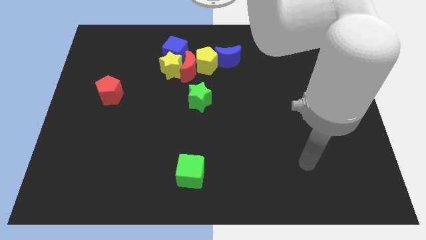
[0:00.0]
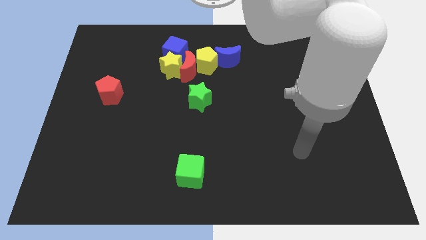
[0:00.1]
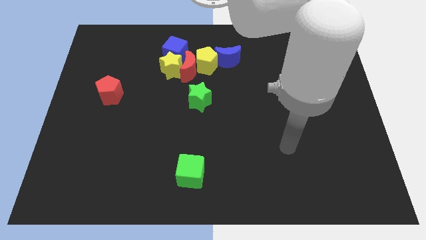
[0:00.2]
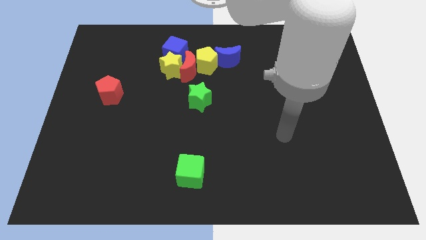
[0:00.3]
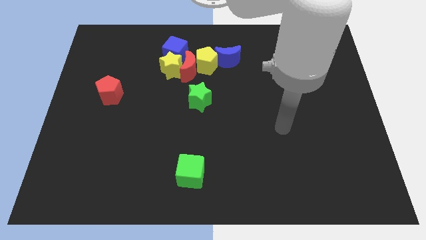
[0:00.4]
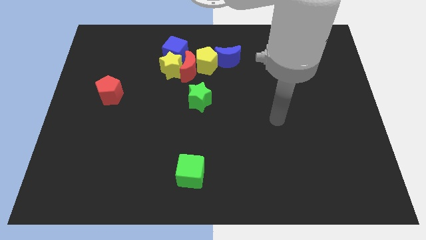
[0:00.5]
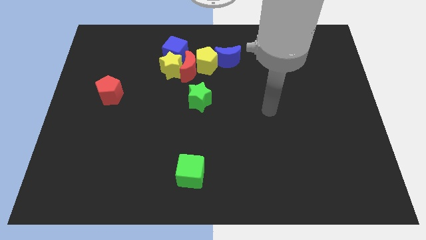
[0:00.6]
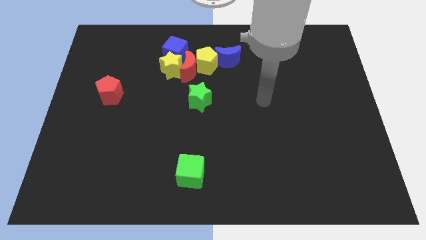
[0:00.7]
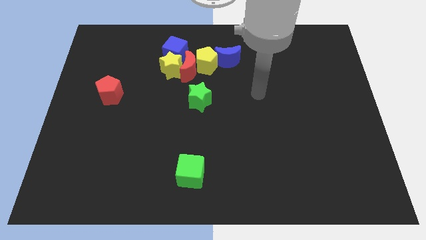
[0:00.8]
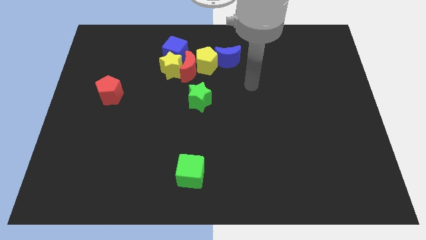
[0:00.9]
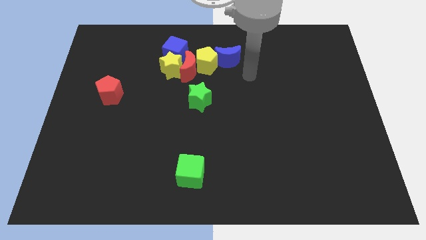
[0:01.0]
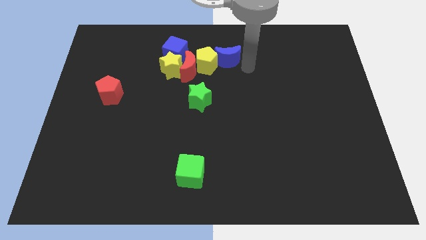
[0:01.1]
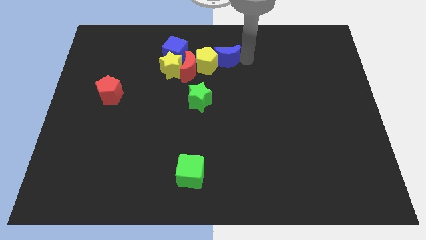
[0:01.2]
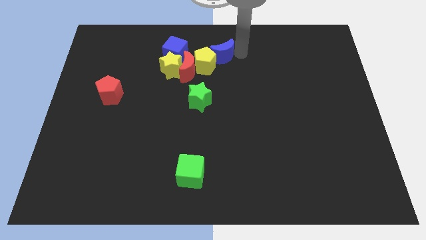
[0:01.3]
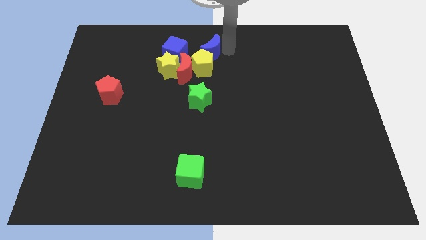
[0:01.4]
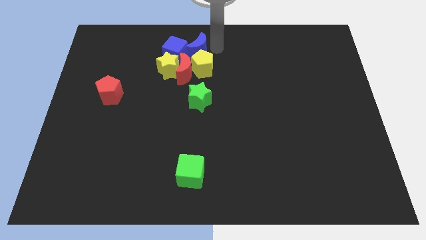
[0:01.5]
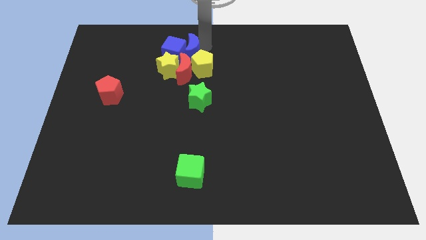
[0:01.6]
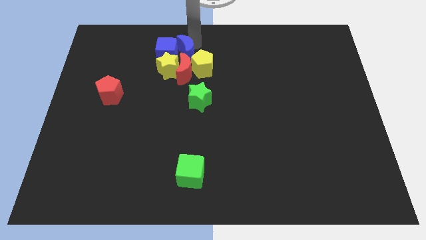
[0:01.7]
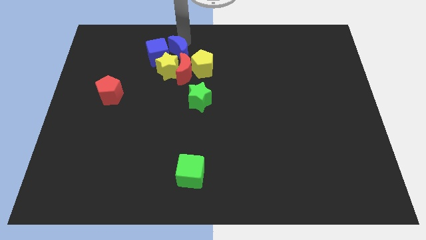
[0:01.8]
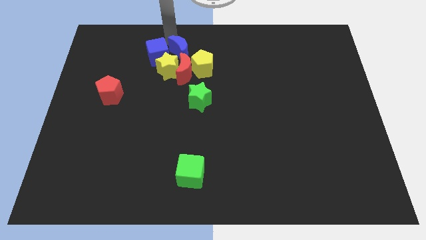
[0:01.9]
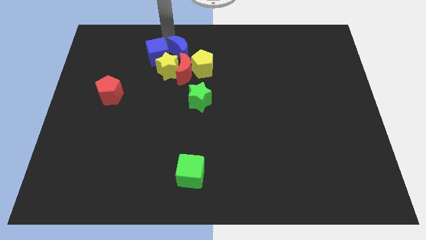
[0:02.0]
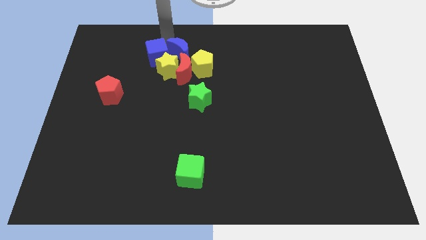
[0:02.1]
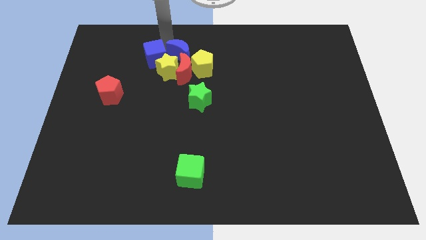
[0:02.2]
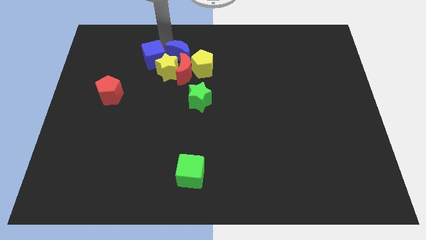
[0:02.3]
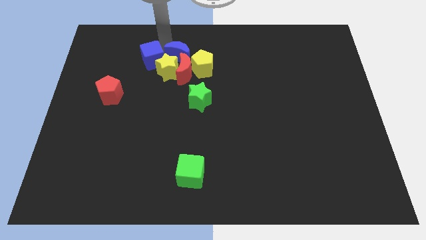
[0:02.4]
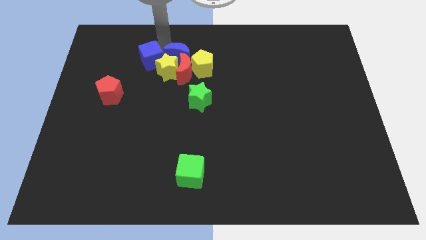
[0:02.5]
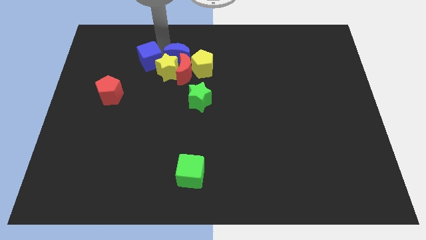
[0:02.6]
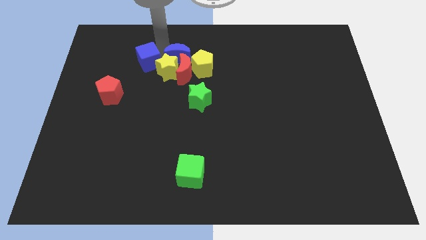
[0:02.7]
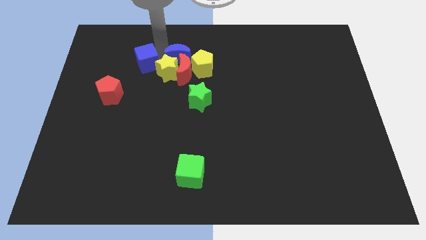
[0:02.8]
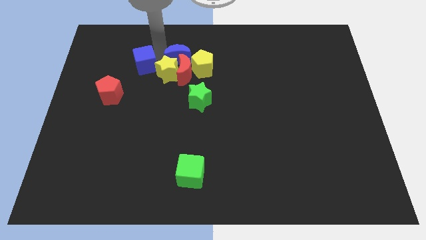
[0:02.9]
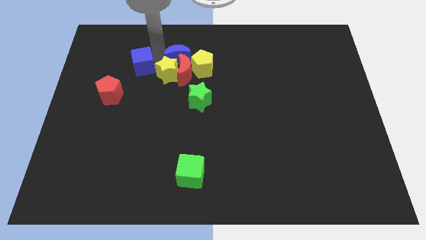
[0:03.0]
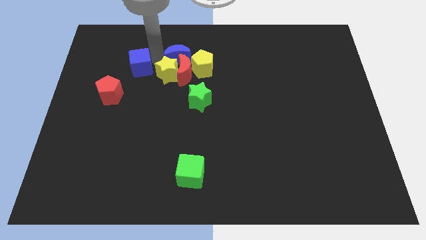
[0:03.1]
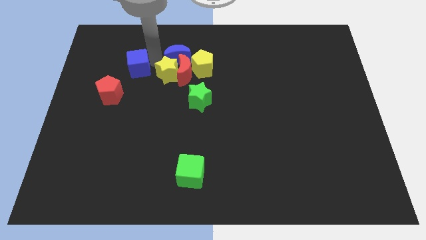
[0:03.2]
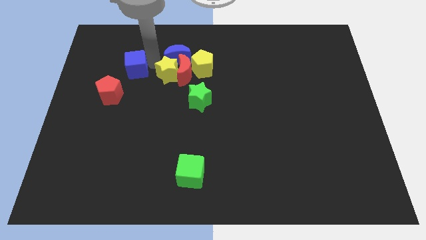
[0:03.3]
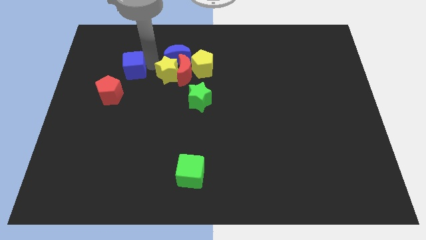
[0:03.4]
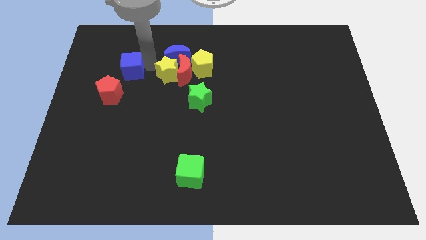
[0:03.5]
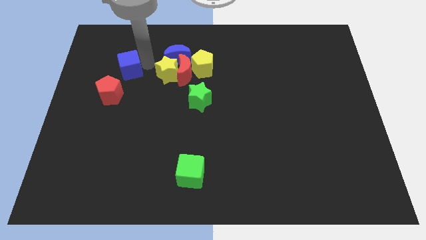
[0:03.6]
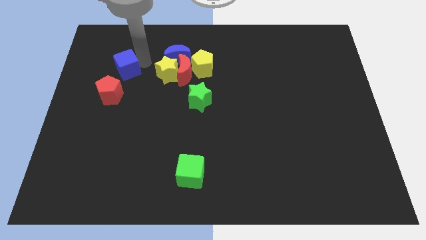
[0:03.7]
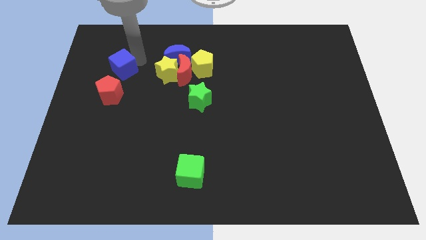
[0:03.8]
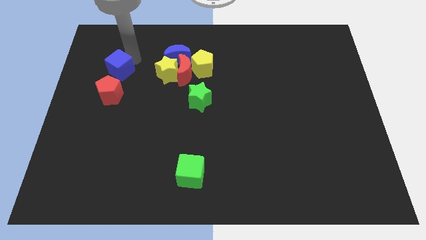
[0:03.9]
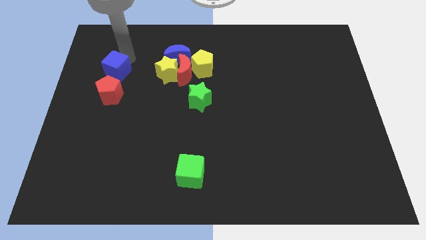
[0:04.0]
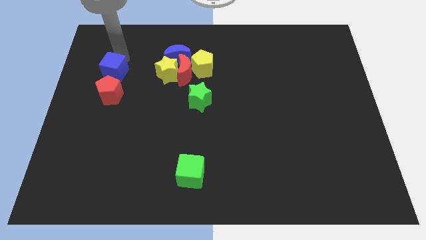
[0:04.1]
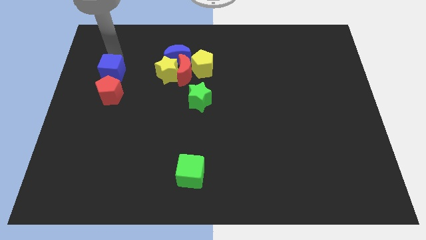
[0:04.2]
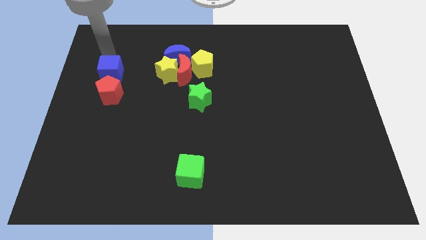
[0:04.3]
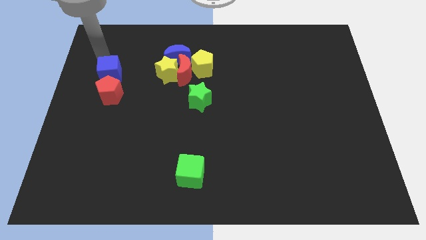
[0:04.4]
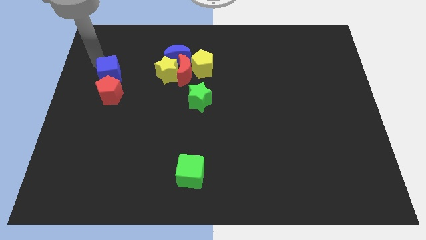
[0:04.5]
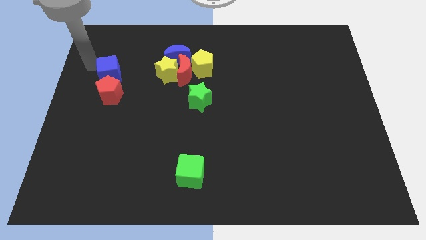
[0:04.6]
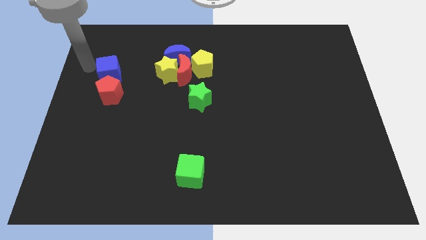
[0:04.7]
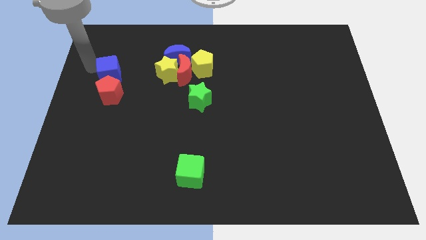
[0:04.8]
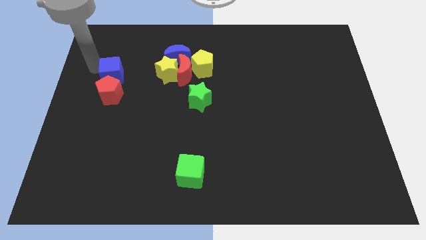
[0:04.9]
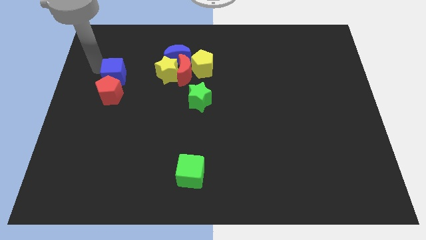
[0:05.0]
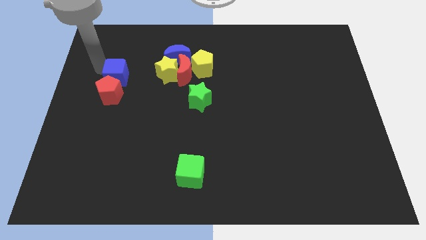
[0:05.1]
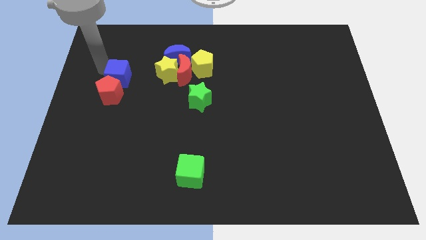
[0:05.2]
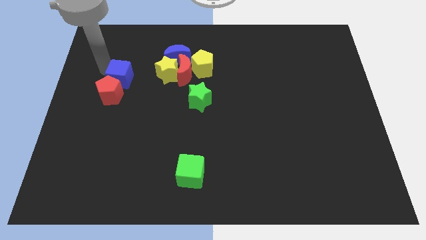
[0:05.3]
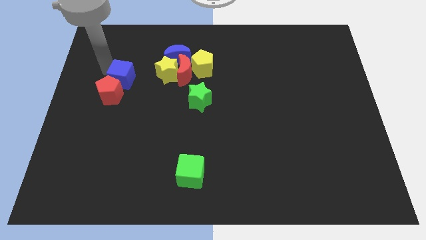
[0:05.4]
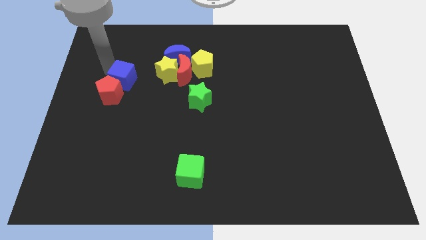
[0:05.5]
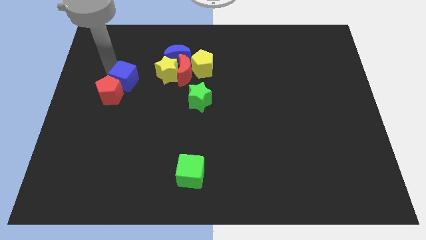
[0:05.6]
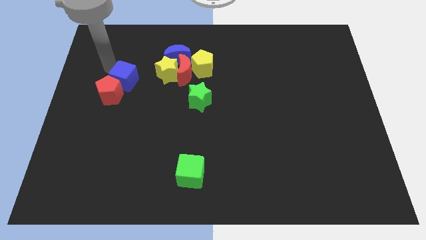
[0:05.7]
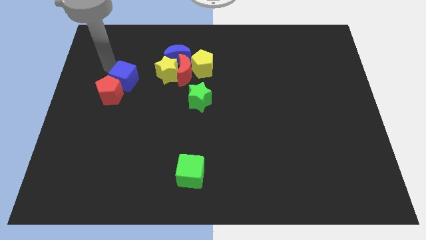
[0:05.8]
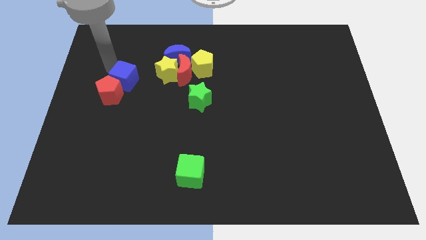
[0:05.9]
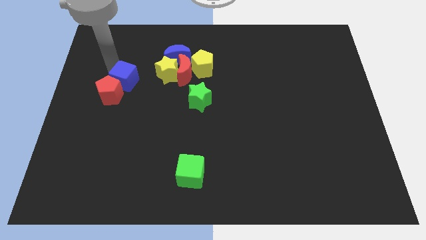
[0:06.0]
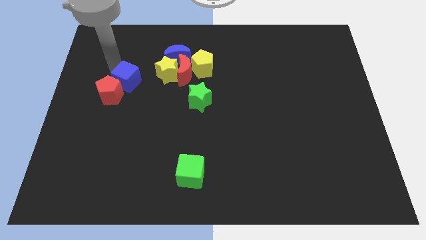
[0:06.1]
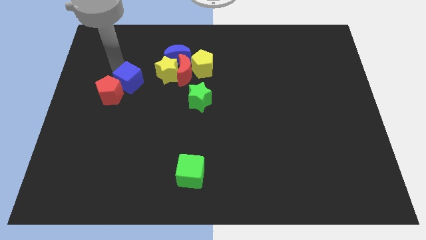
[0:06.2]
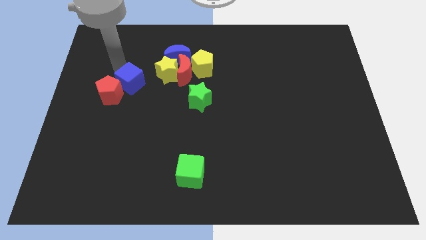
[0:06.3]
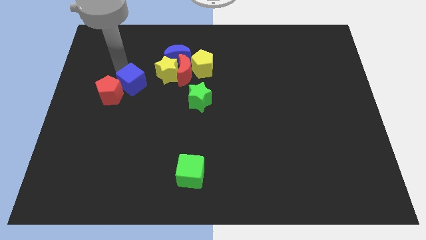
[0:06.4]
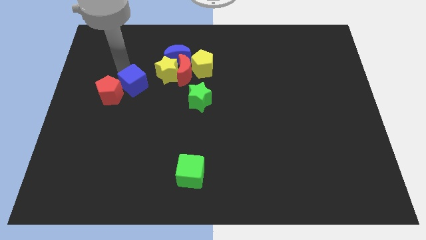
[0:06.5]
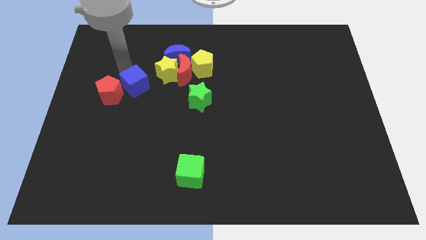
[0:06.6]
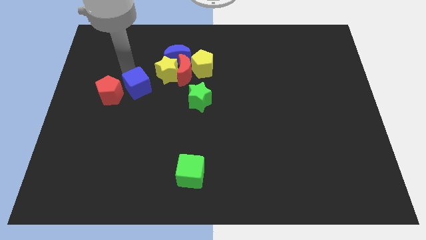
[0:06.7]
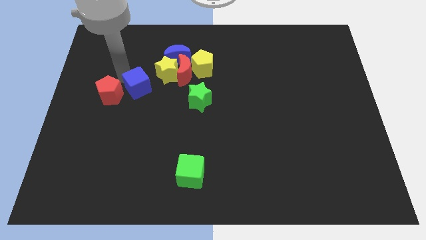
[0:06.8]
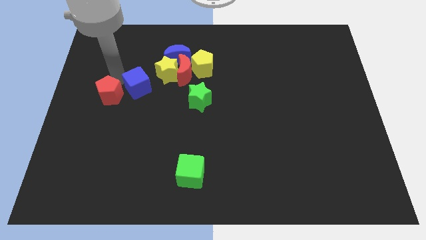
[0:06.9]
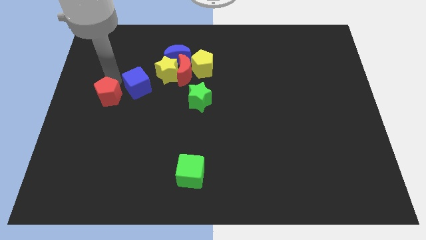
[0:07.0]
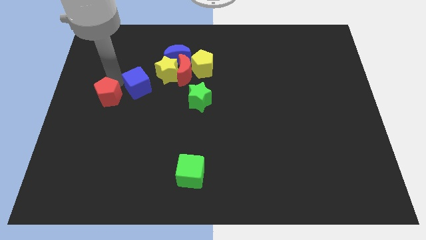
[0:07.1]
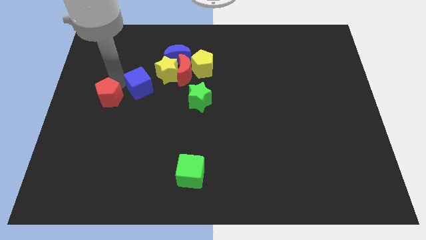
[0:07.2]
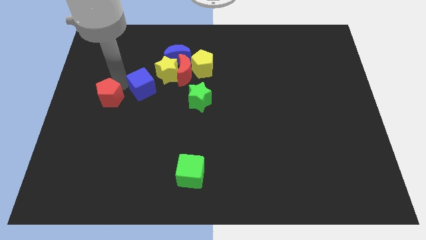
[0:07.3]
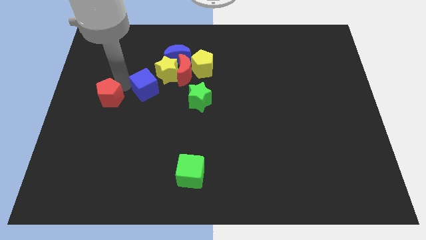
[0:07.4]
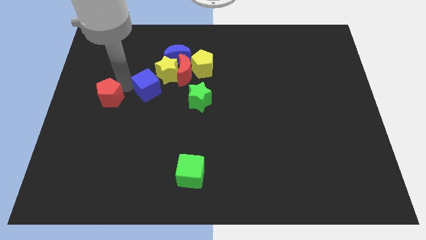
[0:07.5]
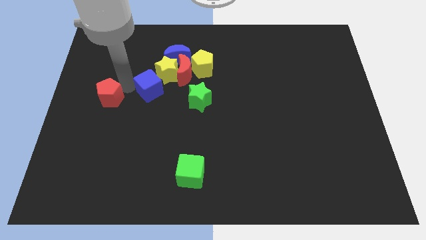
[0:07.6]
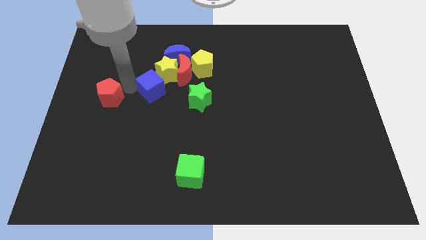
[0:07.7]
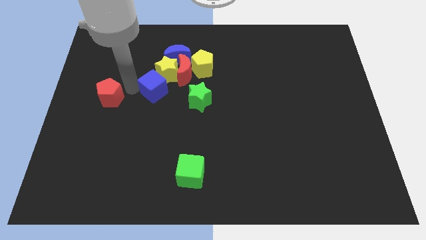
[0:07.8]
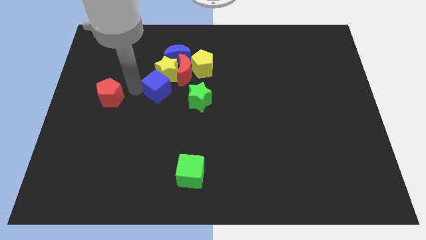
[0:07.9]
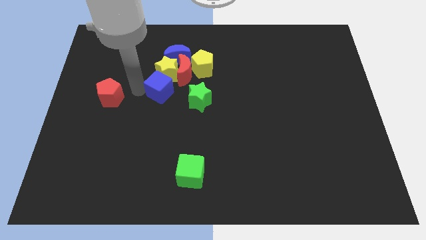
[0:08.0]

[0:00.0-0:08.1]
slide the blue cube to the bottom right side of the yellow star
